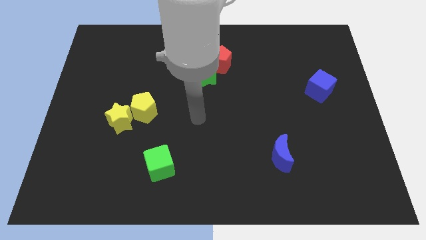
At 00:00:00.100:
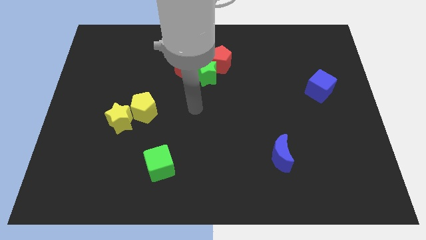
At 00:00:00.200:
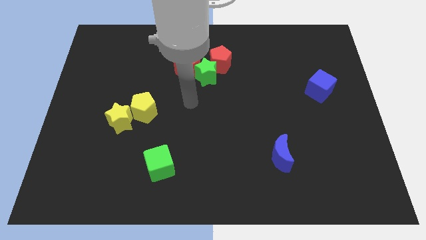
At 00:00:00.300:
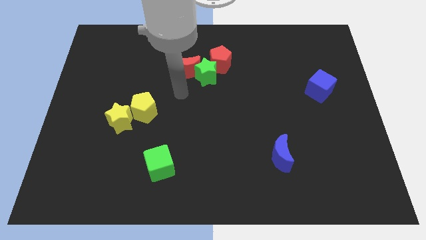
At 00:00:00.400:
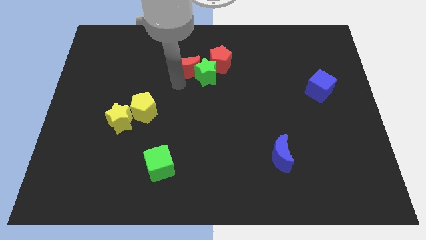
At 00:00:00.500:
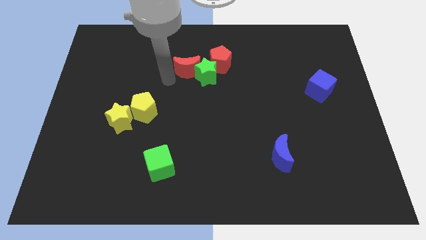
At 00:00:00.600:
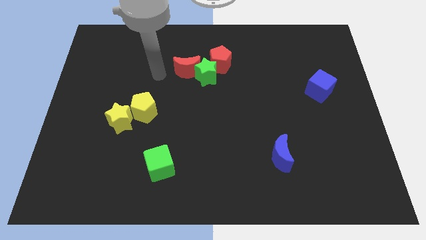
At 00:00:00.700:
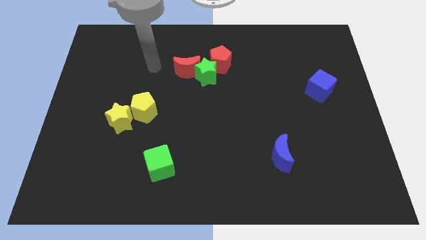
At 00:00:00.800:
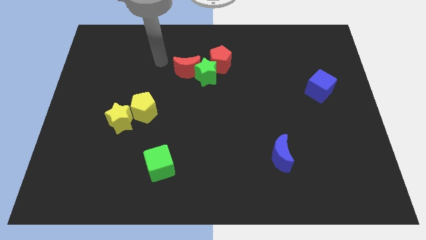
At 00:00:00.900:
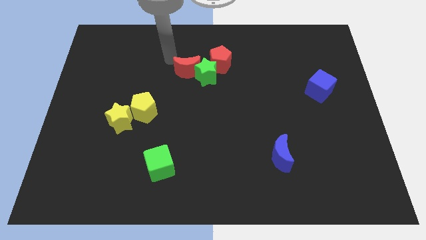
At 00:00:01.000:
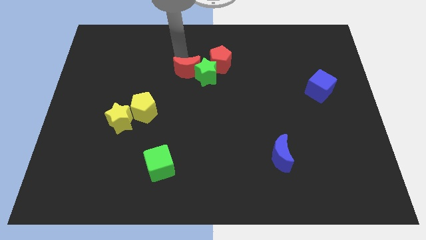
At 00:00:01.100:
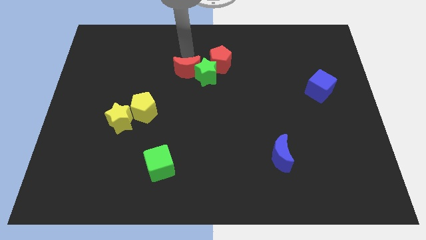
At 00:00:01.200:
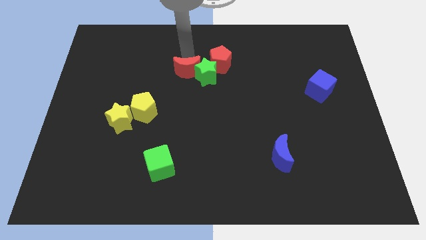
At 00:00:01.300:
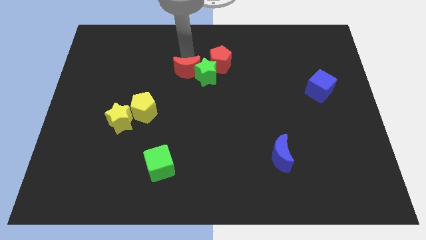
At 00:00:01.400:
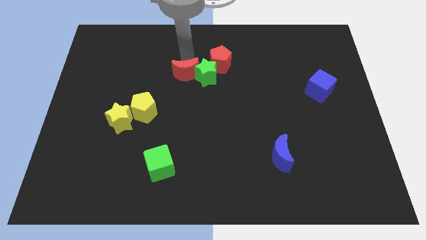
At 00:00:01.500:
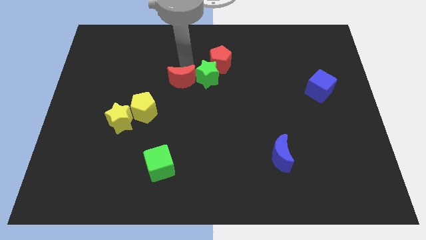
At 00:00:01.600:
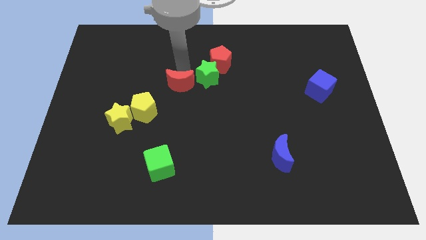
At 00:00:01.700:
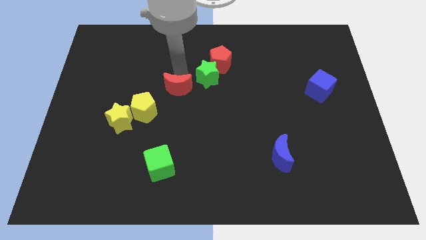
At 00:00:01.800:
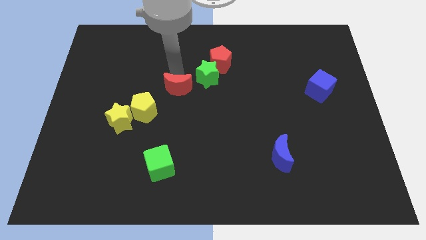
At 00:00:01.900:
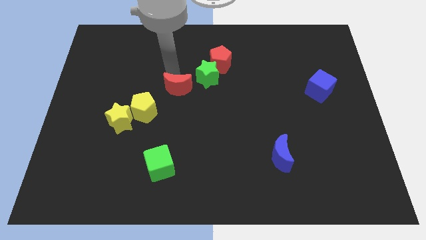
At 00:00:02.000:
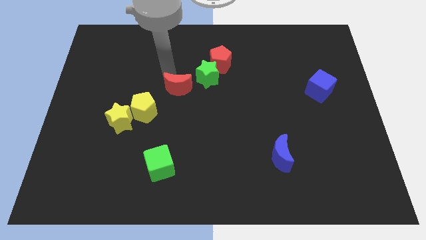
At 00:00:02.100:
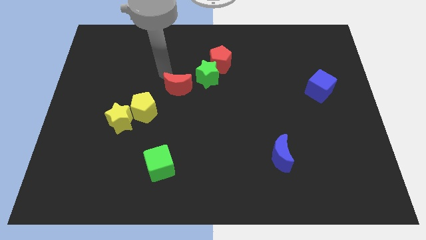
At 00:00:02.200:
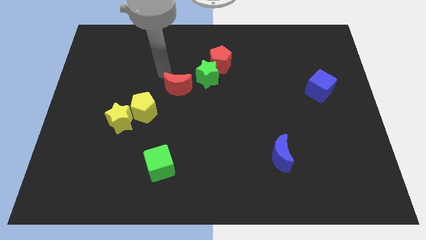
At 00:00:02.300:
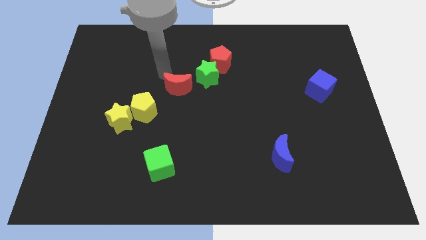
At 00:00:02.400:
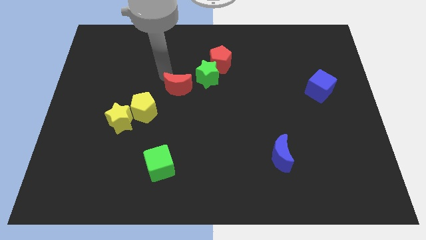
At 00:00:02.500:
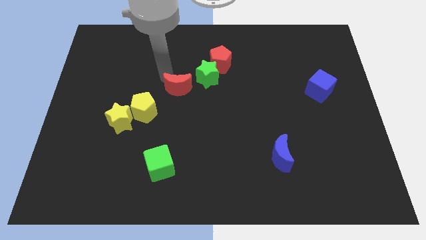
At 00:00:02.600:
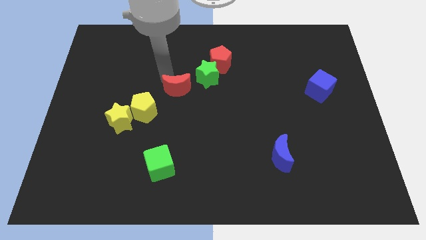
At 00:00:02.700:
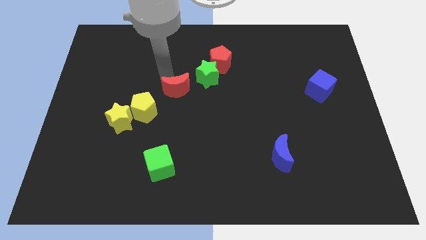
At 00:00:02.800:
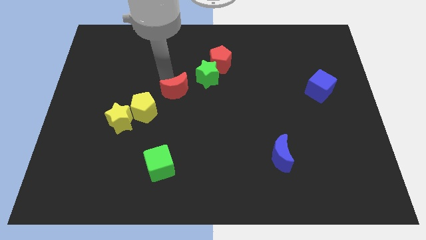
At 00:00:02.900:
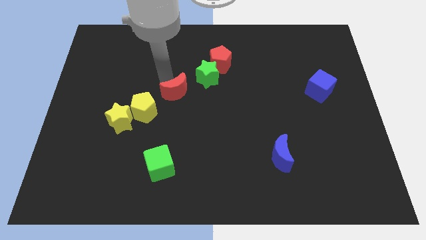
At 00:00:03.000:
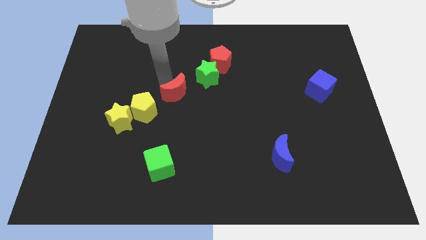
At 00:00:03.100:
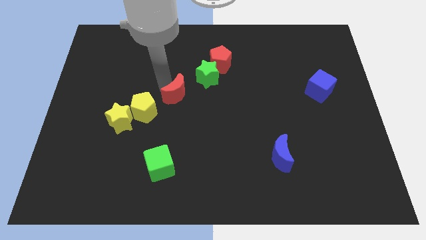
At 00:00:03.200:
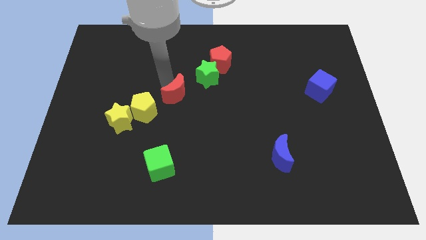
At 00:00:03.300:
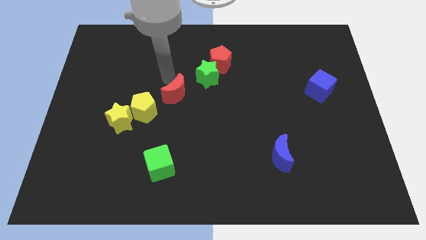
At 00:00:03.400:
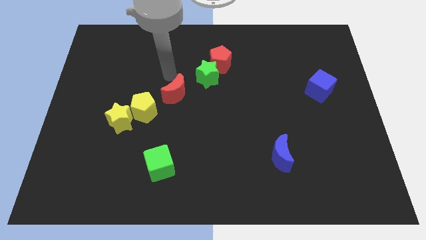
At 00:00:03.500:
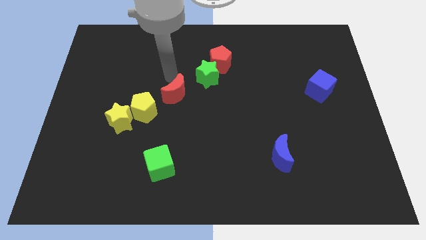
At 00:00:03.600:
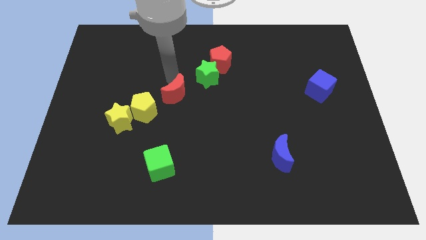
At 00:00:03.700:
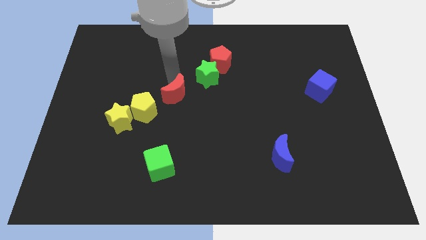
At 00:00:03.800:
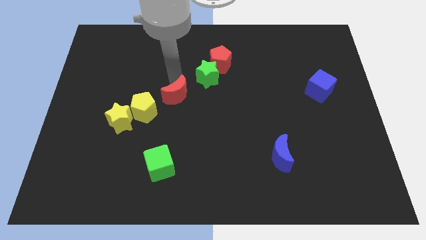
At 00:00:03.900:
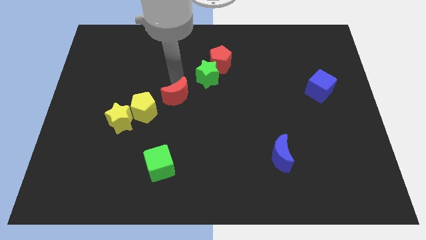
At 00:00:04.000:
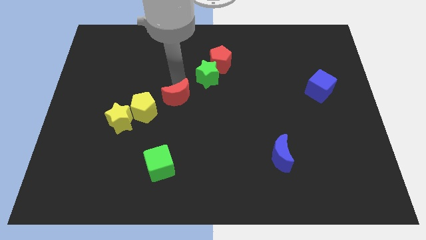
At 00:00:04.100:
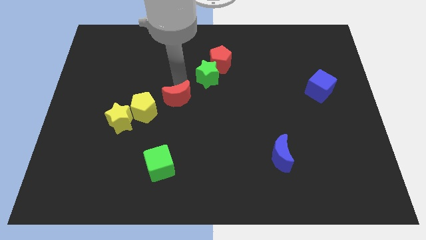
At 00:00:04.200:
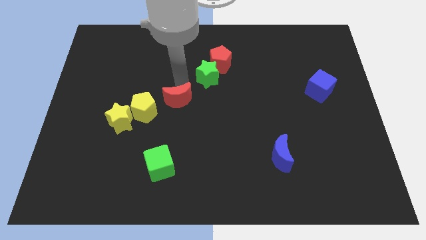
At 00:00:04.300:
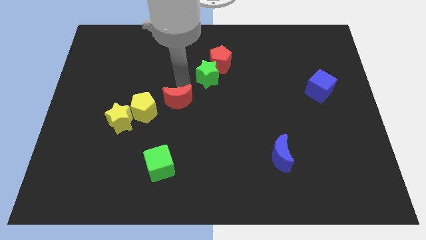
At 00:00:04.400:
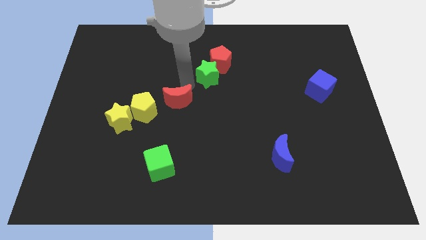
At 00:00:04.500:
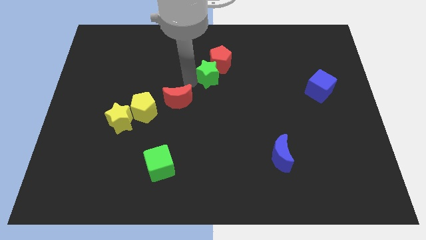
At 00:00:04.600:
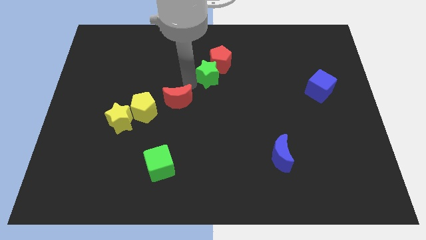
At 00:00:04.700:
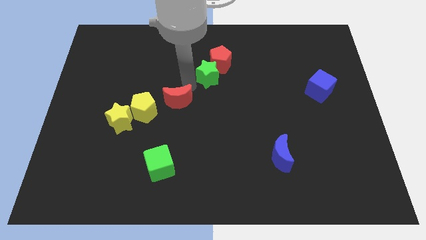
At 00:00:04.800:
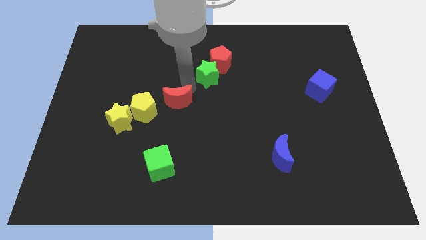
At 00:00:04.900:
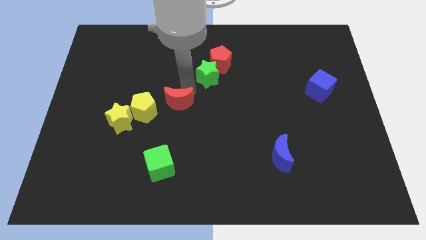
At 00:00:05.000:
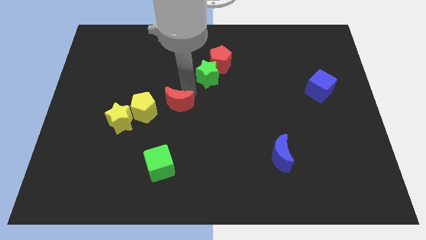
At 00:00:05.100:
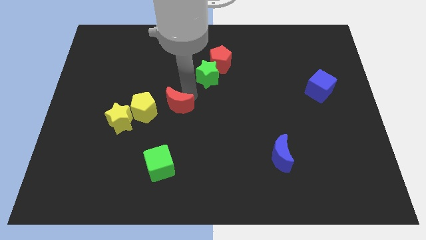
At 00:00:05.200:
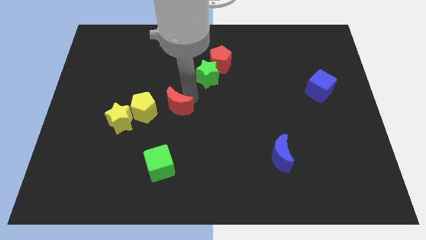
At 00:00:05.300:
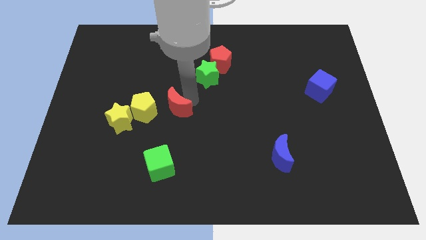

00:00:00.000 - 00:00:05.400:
put the red moon above the green cube

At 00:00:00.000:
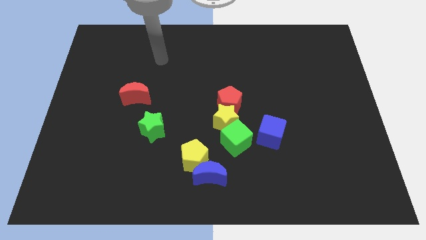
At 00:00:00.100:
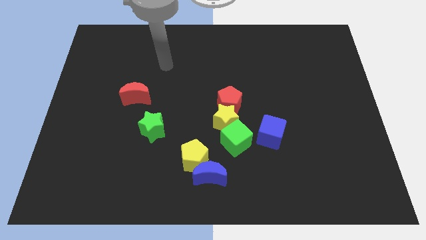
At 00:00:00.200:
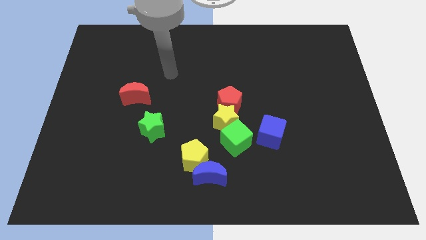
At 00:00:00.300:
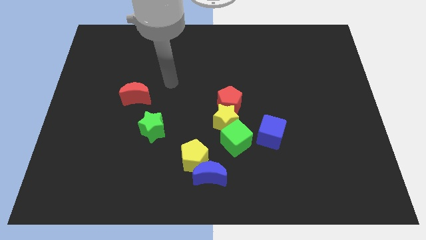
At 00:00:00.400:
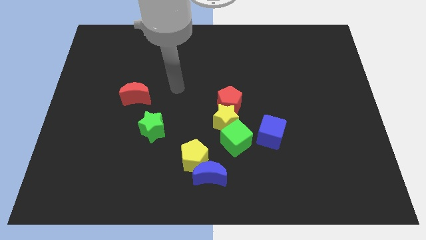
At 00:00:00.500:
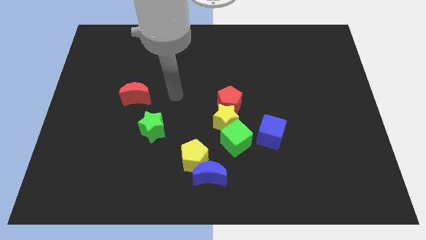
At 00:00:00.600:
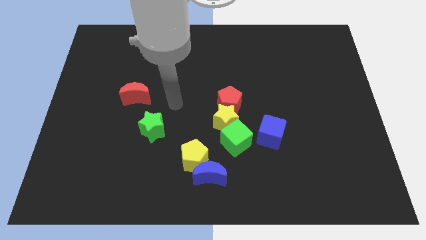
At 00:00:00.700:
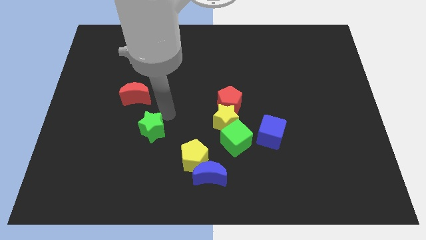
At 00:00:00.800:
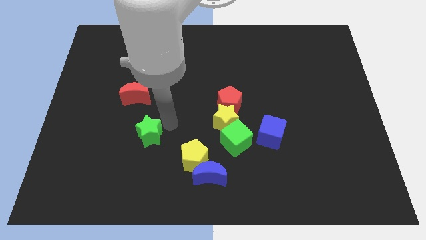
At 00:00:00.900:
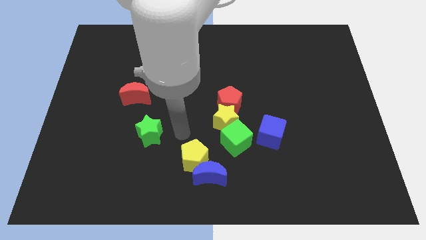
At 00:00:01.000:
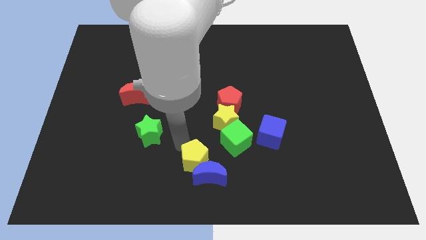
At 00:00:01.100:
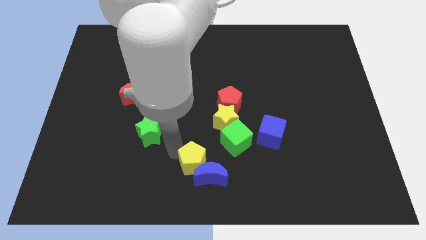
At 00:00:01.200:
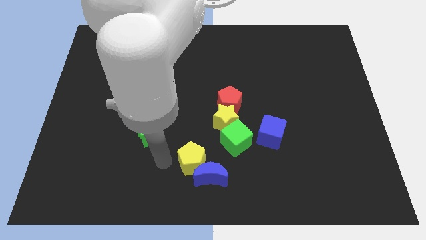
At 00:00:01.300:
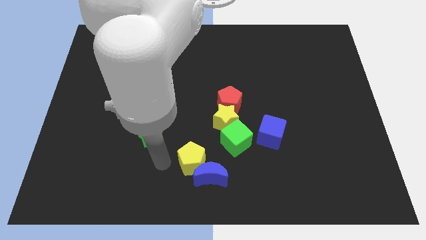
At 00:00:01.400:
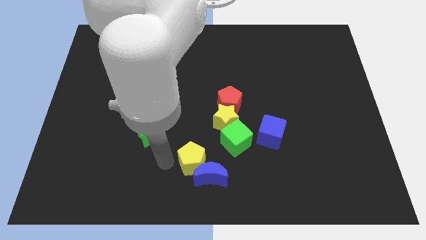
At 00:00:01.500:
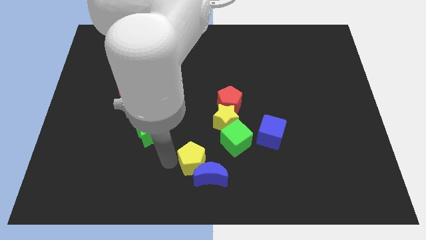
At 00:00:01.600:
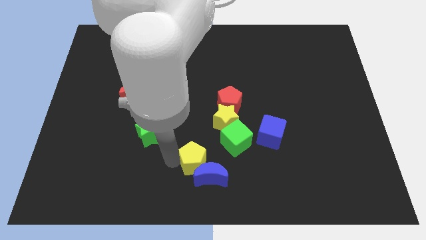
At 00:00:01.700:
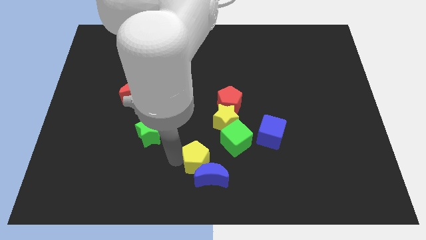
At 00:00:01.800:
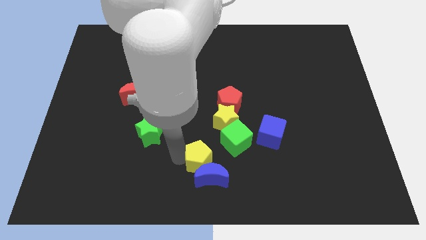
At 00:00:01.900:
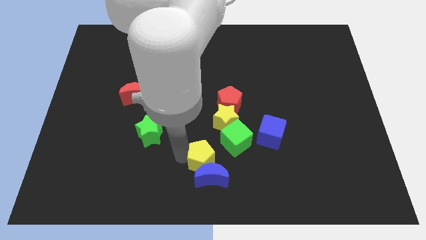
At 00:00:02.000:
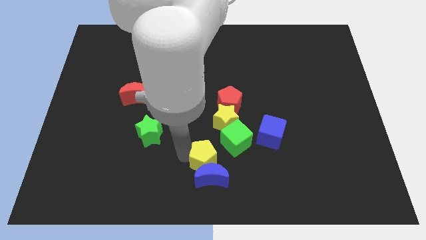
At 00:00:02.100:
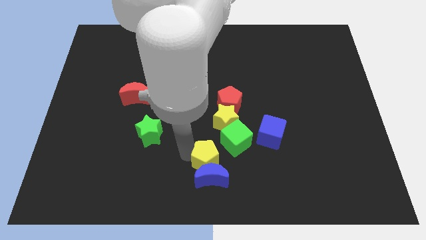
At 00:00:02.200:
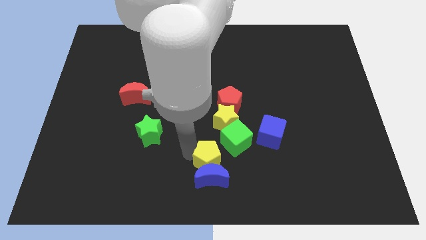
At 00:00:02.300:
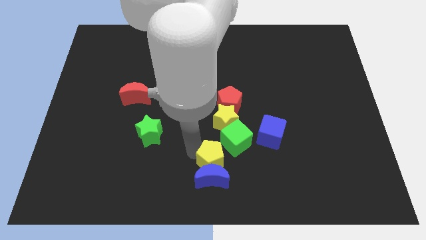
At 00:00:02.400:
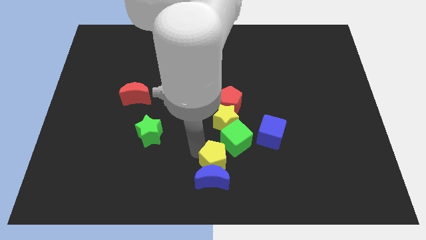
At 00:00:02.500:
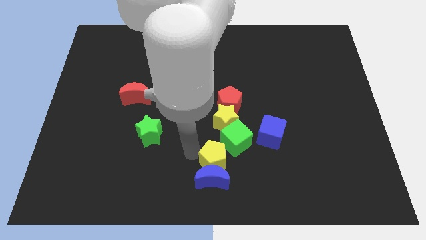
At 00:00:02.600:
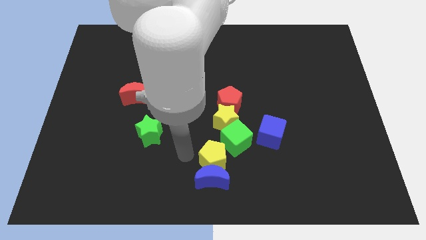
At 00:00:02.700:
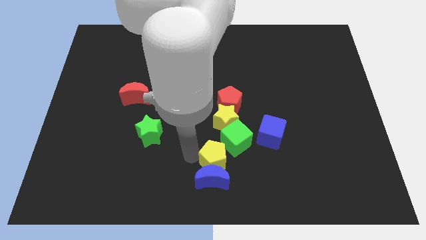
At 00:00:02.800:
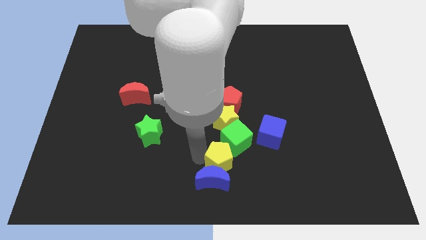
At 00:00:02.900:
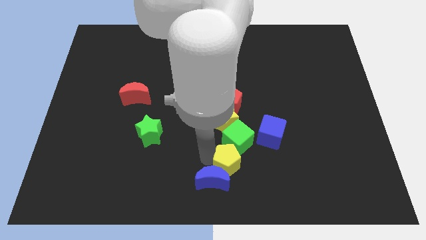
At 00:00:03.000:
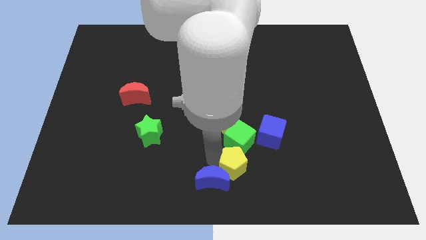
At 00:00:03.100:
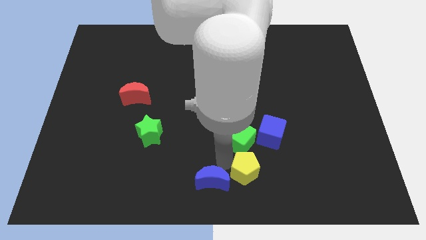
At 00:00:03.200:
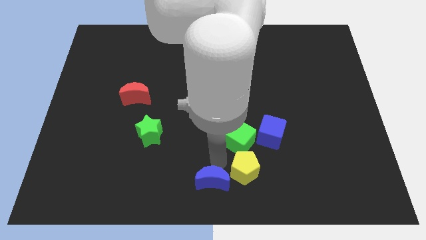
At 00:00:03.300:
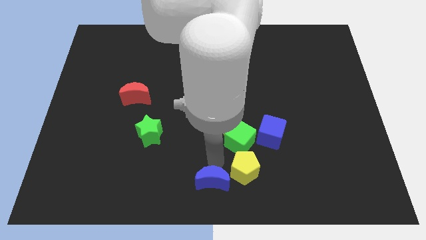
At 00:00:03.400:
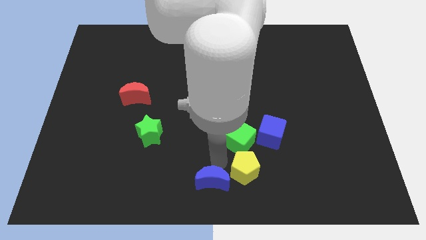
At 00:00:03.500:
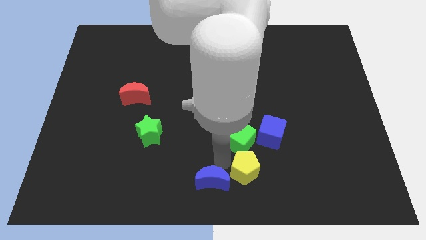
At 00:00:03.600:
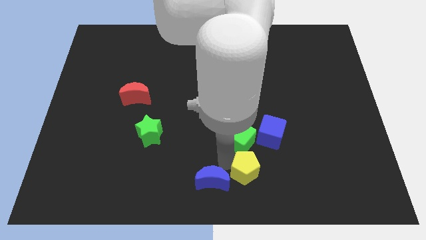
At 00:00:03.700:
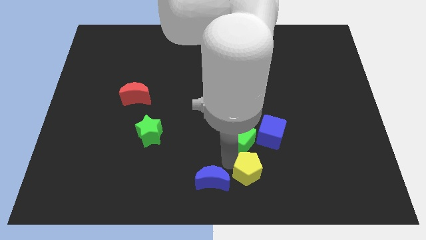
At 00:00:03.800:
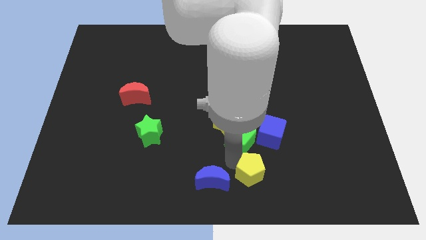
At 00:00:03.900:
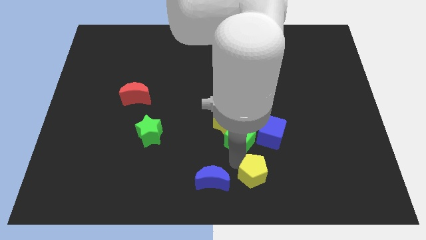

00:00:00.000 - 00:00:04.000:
move the yellow pentagon below the blue cube
